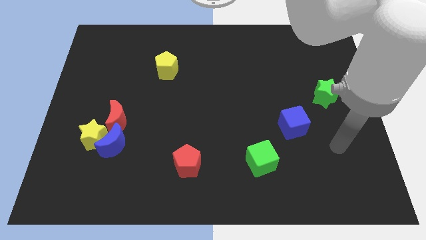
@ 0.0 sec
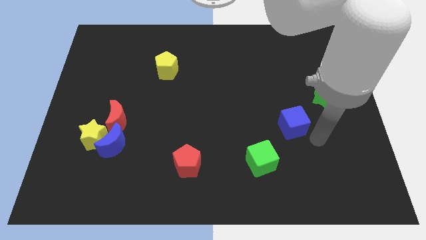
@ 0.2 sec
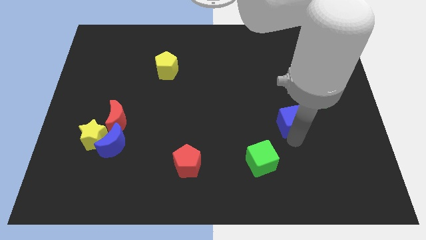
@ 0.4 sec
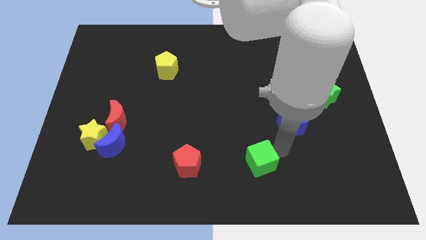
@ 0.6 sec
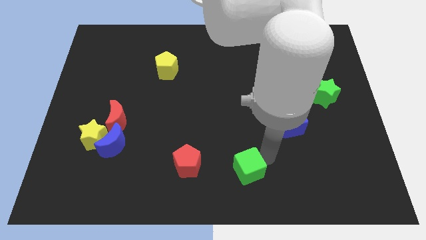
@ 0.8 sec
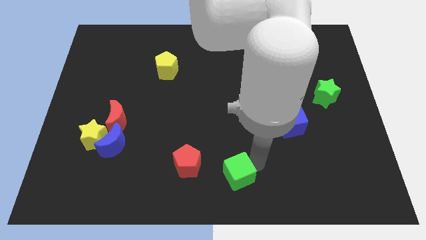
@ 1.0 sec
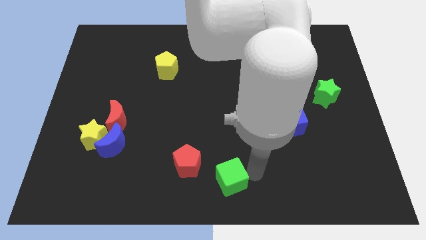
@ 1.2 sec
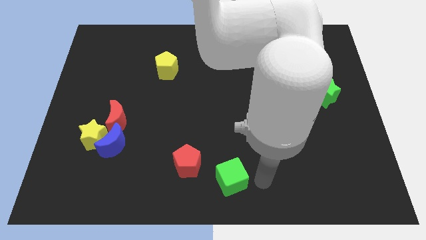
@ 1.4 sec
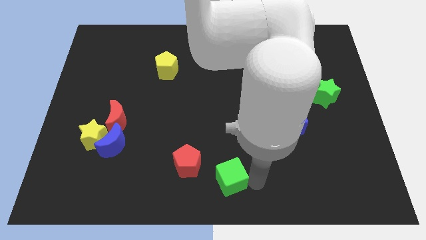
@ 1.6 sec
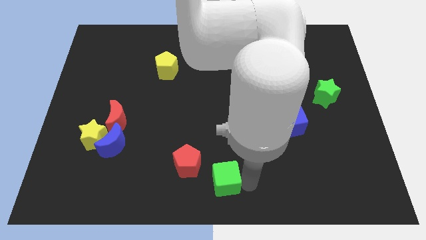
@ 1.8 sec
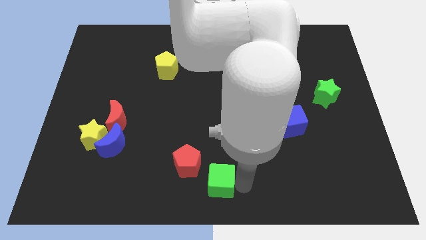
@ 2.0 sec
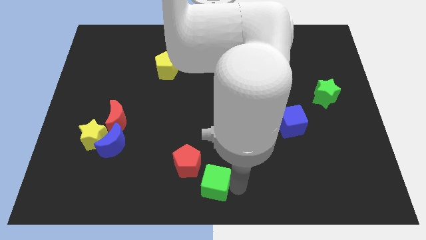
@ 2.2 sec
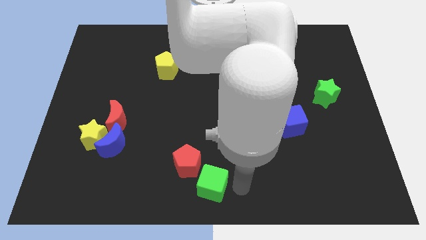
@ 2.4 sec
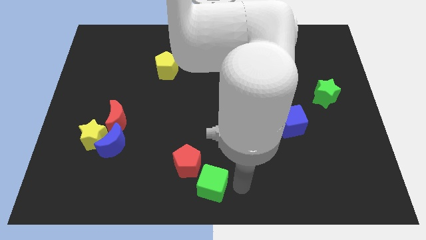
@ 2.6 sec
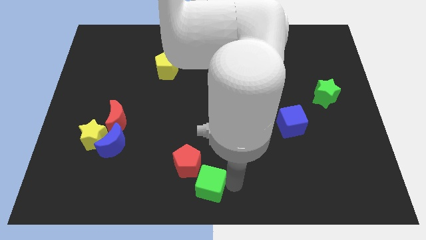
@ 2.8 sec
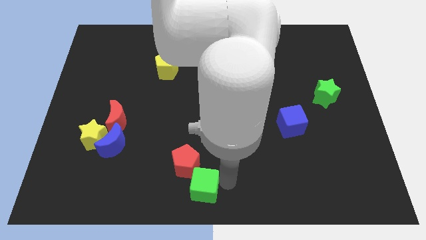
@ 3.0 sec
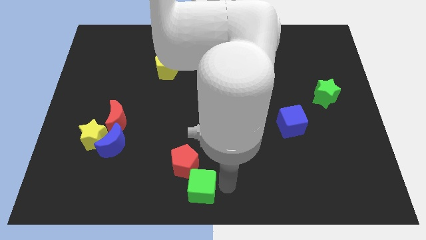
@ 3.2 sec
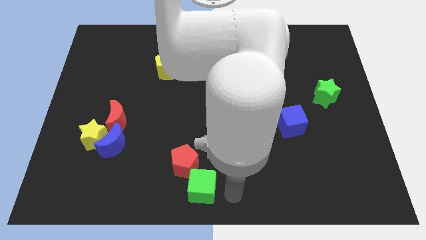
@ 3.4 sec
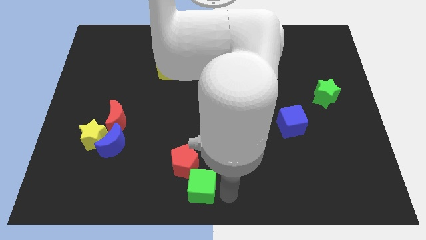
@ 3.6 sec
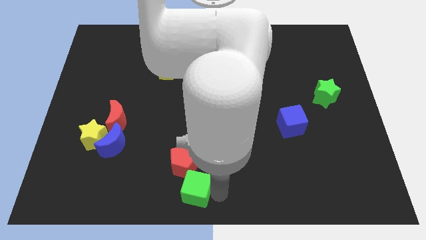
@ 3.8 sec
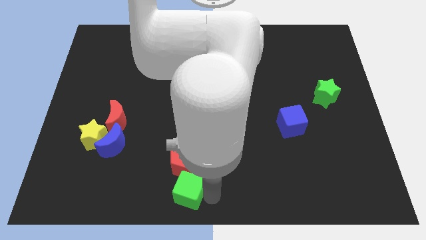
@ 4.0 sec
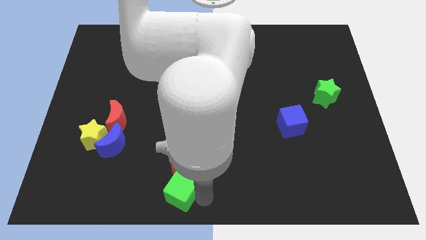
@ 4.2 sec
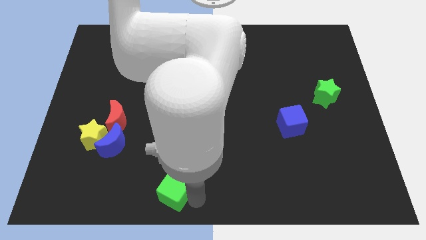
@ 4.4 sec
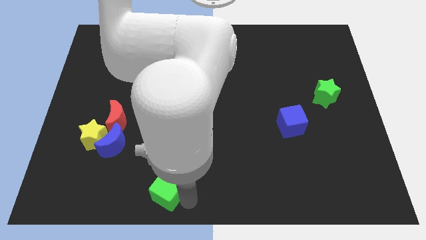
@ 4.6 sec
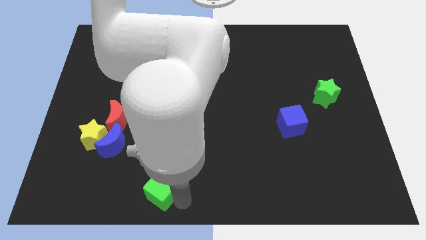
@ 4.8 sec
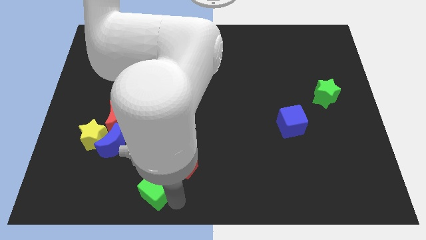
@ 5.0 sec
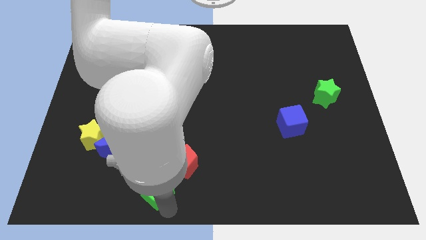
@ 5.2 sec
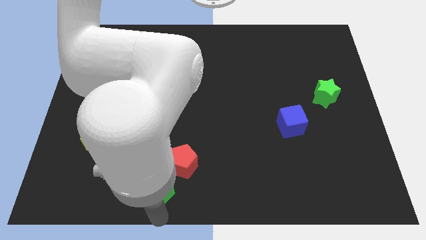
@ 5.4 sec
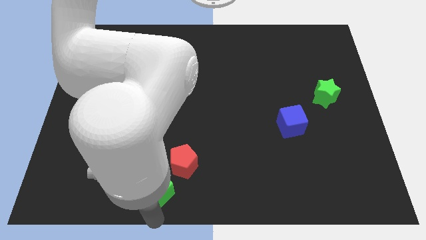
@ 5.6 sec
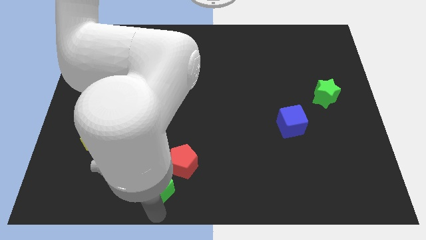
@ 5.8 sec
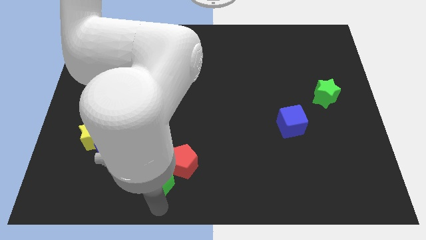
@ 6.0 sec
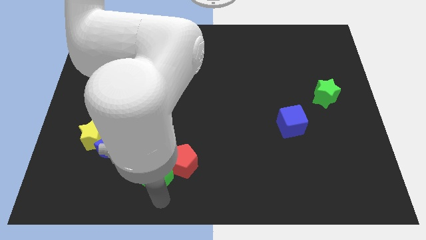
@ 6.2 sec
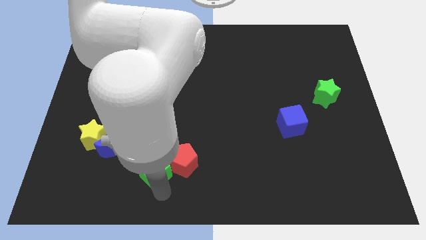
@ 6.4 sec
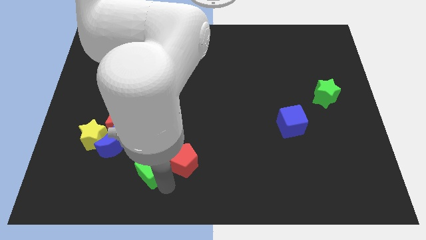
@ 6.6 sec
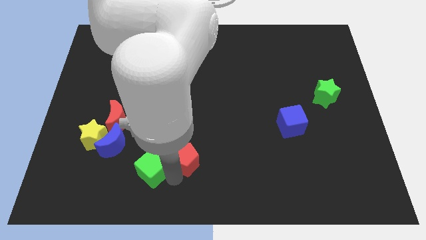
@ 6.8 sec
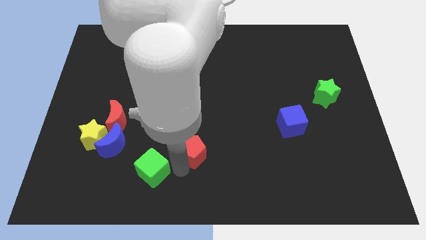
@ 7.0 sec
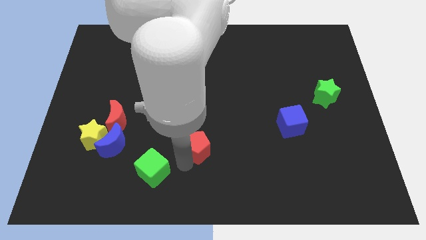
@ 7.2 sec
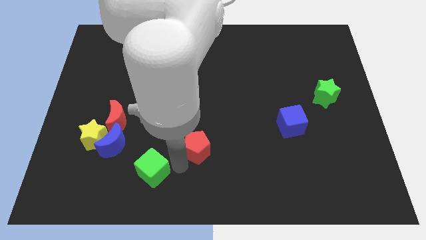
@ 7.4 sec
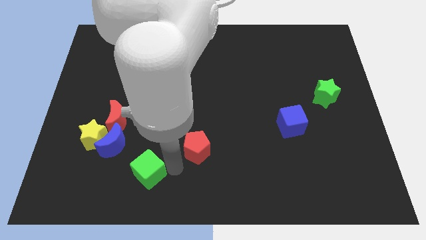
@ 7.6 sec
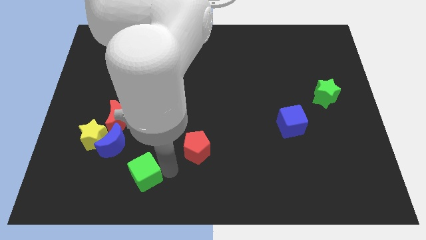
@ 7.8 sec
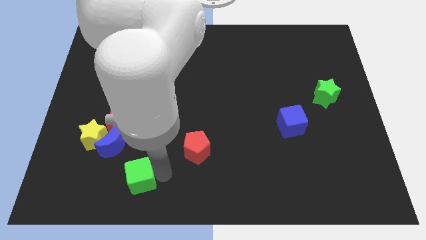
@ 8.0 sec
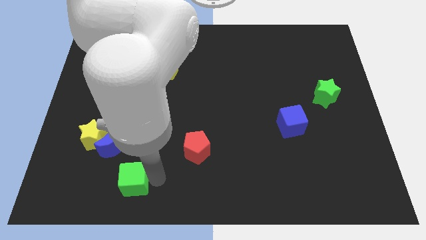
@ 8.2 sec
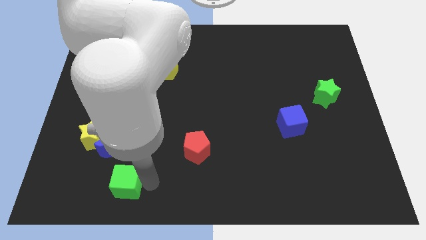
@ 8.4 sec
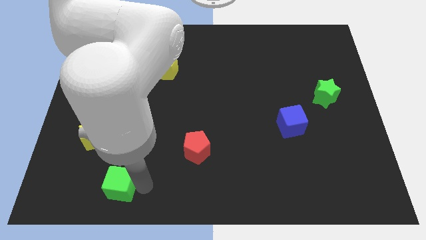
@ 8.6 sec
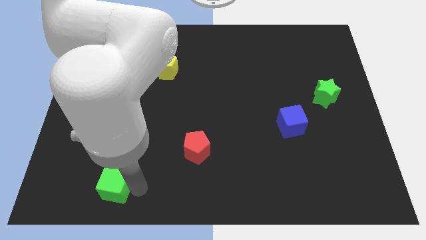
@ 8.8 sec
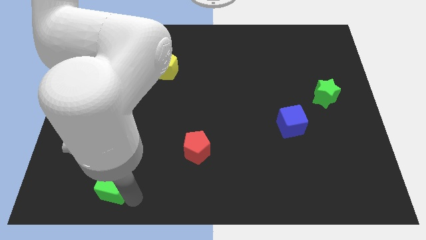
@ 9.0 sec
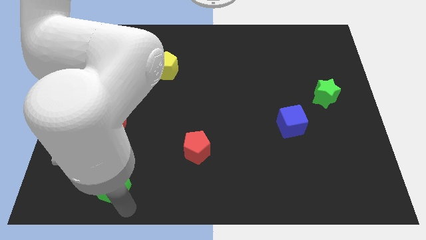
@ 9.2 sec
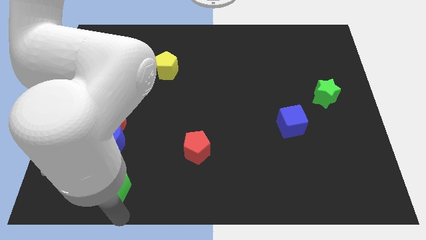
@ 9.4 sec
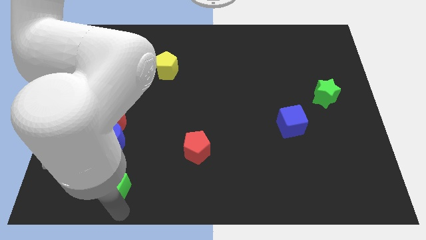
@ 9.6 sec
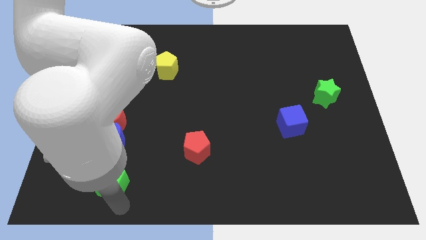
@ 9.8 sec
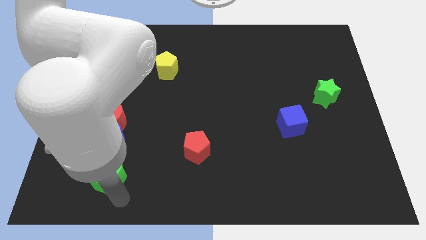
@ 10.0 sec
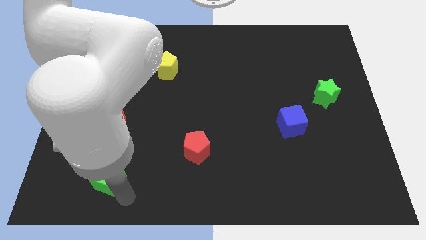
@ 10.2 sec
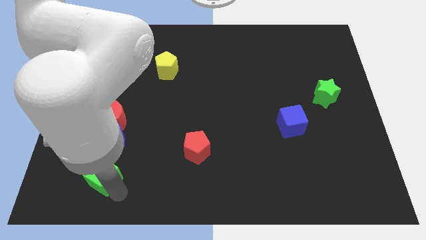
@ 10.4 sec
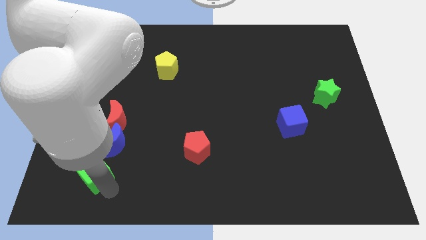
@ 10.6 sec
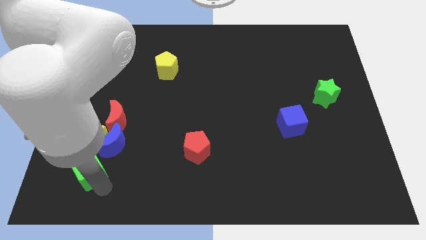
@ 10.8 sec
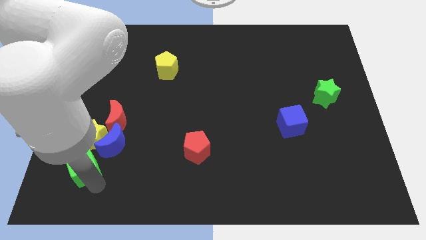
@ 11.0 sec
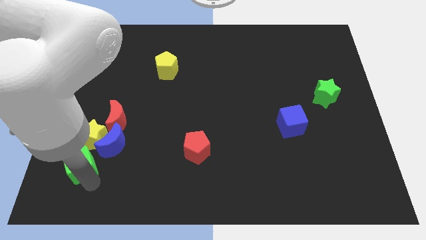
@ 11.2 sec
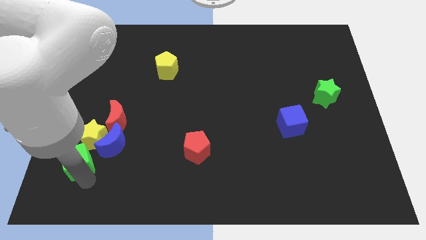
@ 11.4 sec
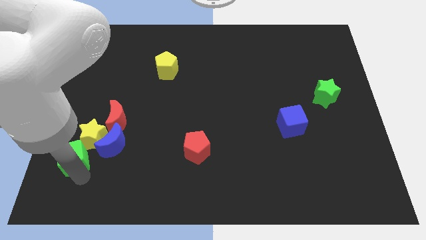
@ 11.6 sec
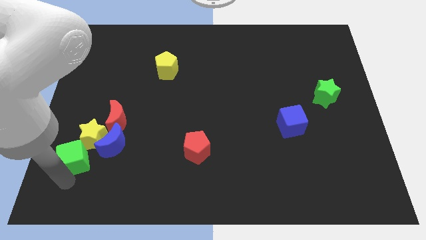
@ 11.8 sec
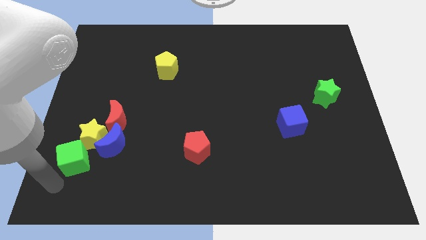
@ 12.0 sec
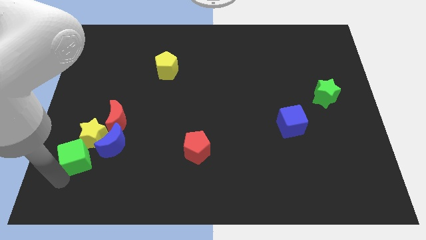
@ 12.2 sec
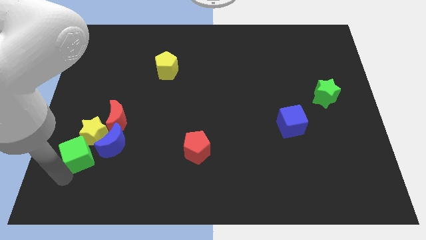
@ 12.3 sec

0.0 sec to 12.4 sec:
slide the green cube to the yellow star

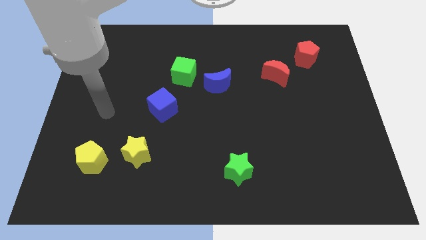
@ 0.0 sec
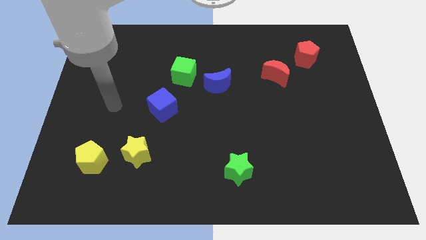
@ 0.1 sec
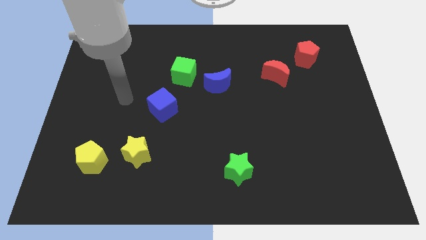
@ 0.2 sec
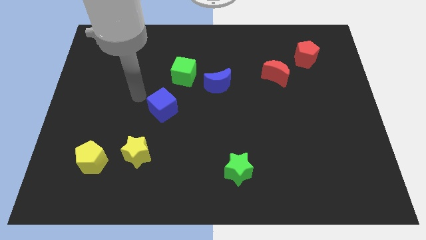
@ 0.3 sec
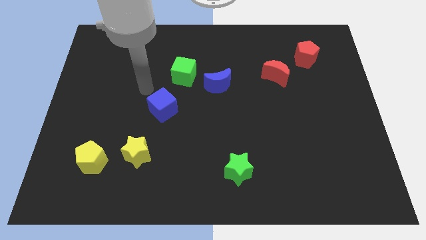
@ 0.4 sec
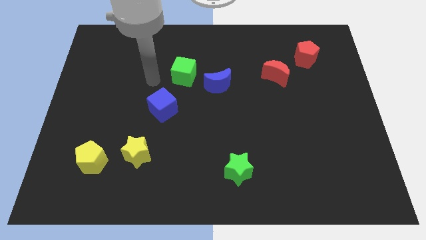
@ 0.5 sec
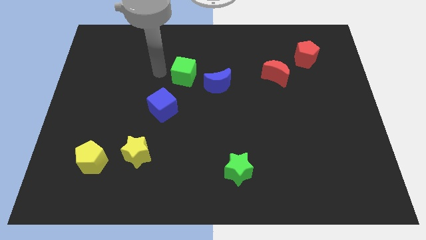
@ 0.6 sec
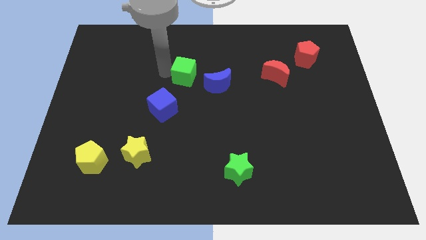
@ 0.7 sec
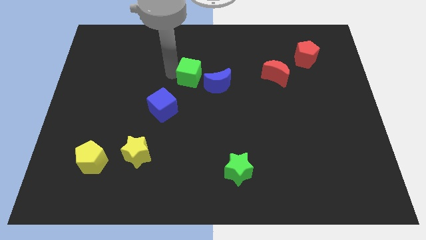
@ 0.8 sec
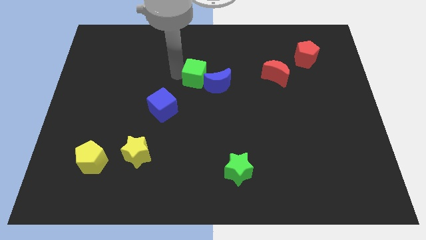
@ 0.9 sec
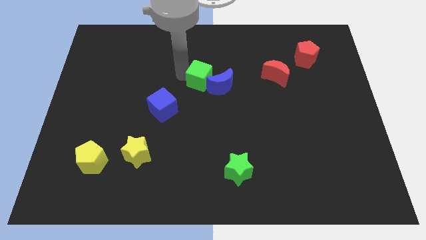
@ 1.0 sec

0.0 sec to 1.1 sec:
put the green cube close to the blue moon
